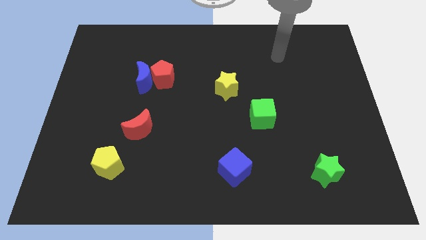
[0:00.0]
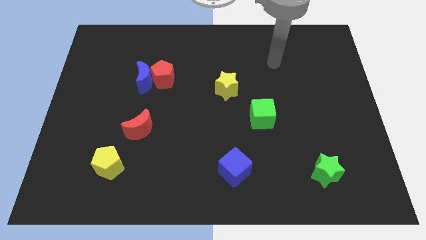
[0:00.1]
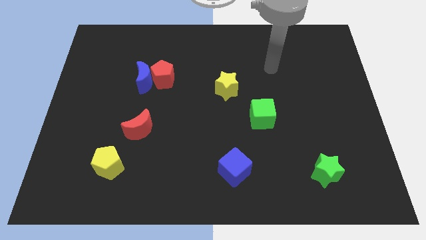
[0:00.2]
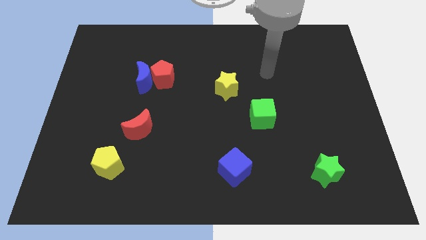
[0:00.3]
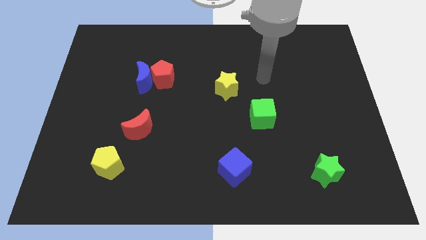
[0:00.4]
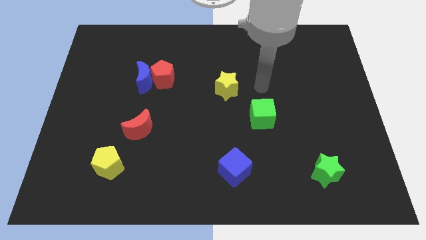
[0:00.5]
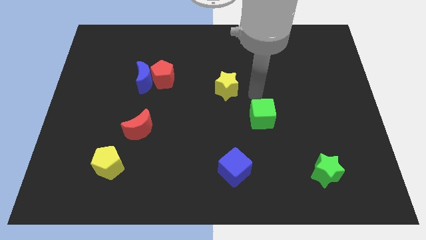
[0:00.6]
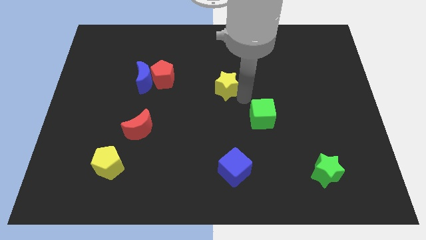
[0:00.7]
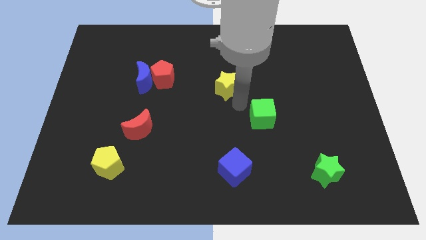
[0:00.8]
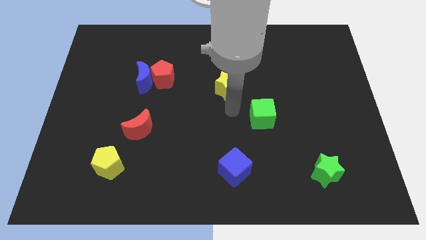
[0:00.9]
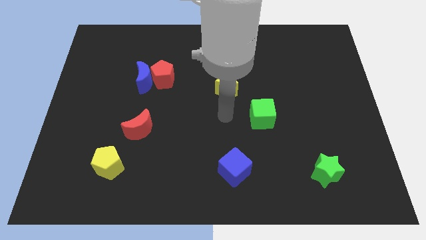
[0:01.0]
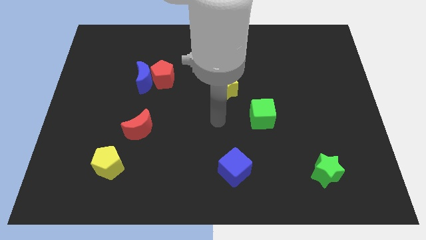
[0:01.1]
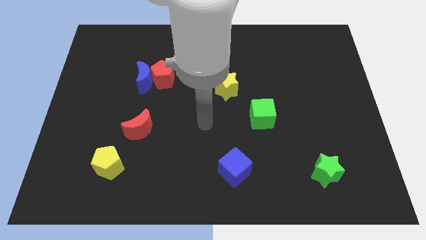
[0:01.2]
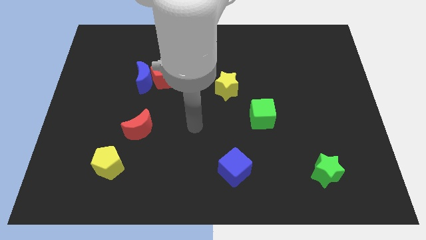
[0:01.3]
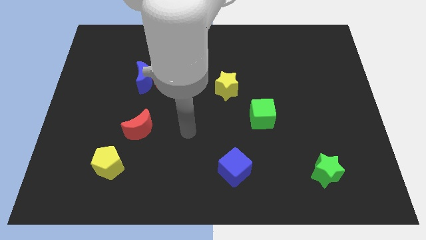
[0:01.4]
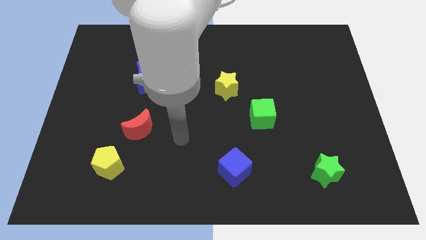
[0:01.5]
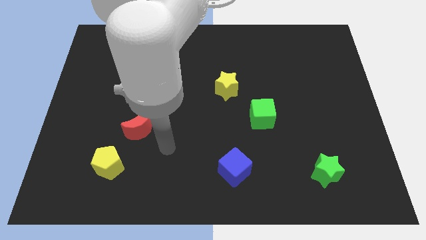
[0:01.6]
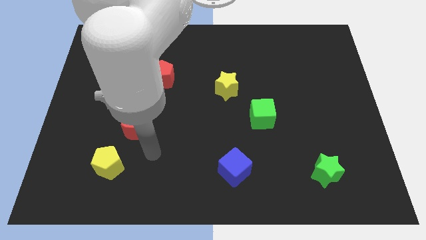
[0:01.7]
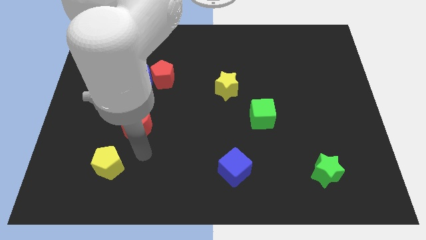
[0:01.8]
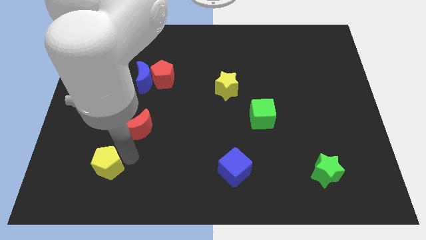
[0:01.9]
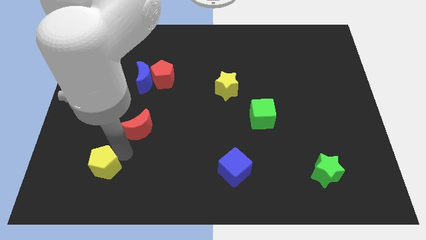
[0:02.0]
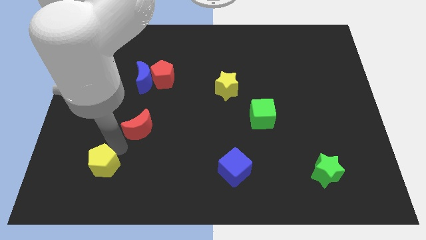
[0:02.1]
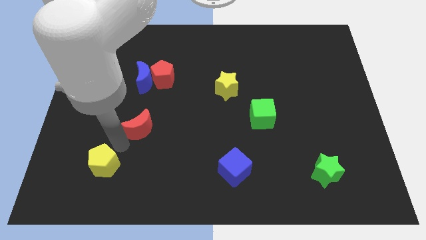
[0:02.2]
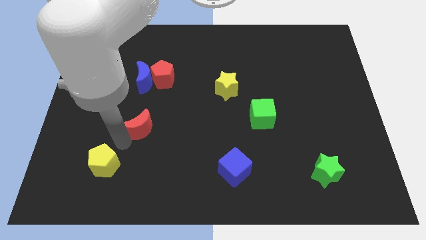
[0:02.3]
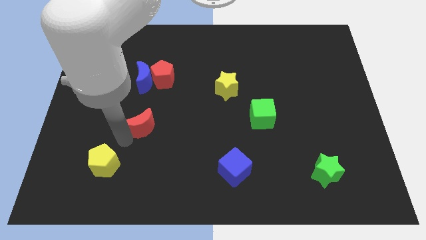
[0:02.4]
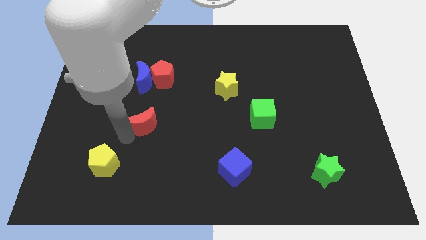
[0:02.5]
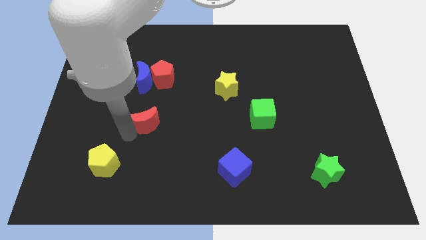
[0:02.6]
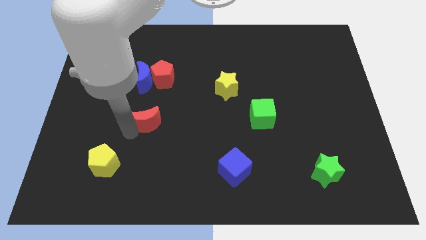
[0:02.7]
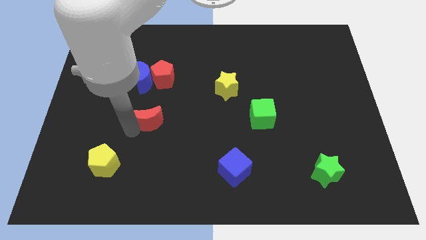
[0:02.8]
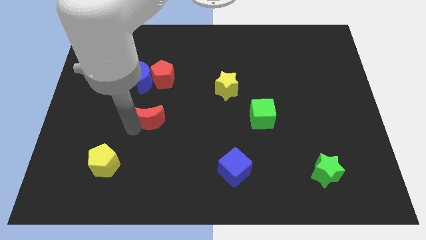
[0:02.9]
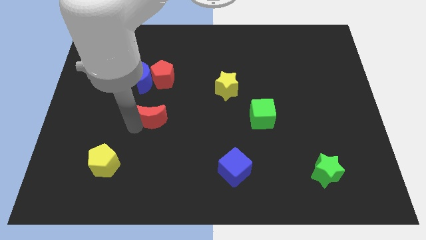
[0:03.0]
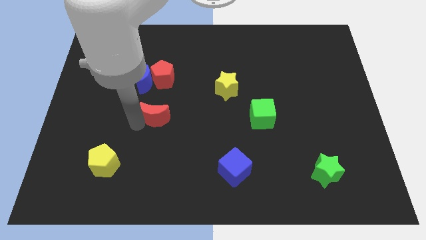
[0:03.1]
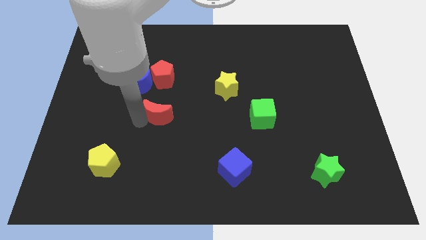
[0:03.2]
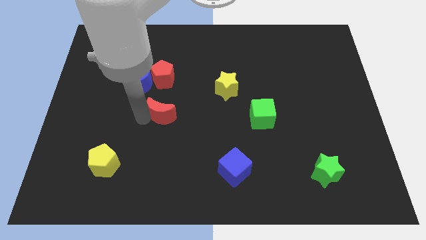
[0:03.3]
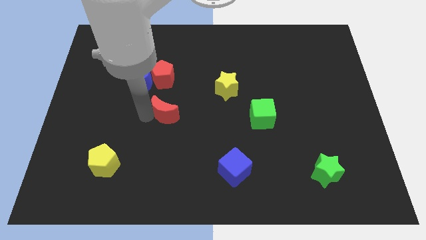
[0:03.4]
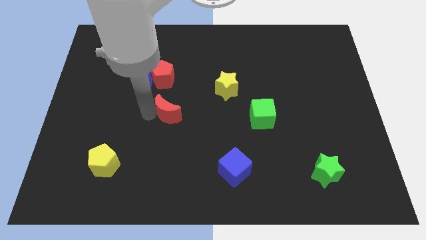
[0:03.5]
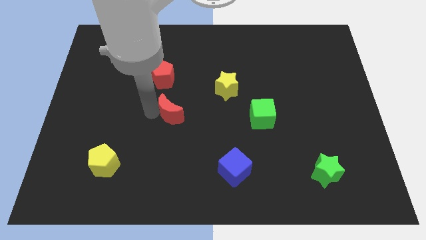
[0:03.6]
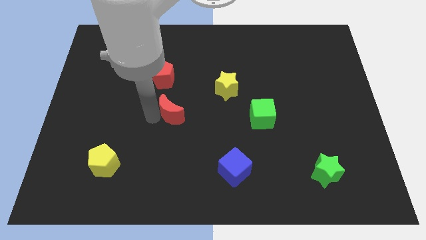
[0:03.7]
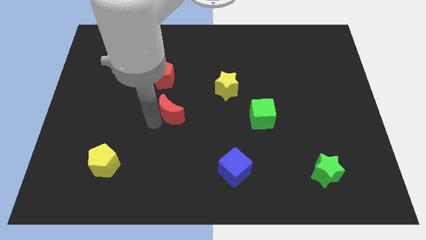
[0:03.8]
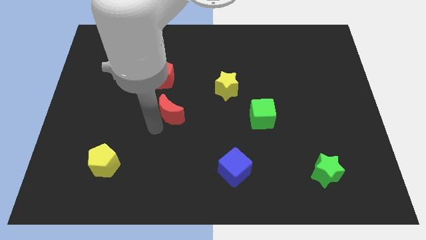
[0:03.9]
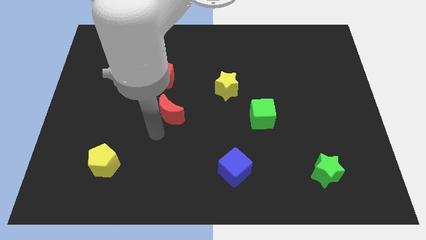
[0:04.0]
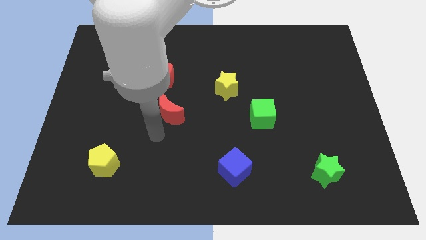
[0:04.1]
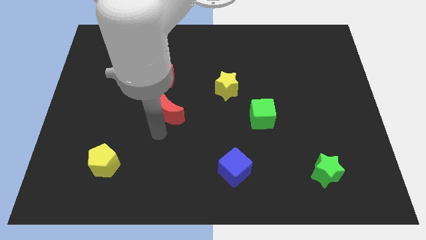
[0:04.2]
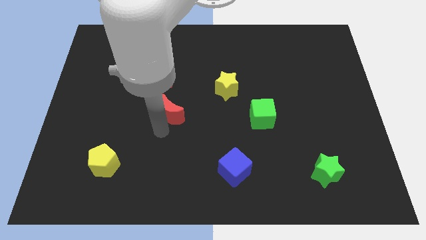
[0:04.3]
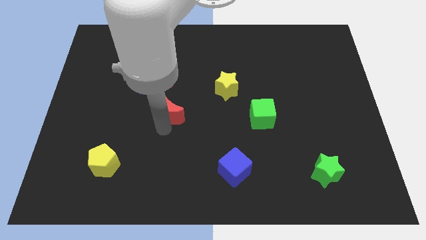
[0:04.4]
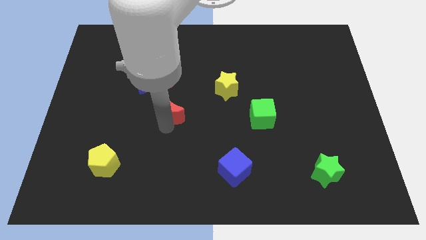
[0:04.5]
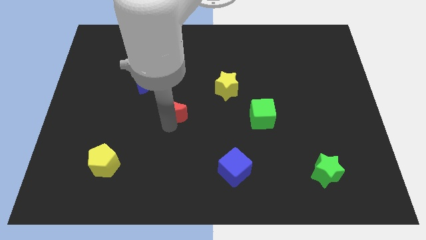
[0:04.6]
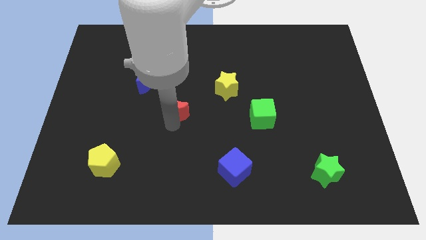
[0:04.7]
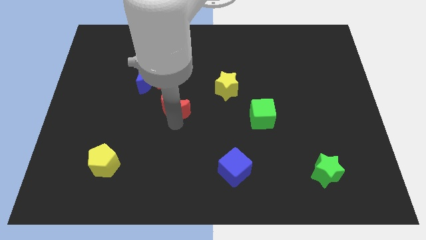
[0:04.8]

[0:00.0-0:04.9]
push the red moon to the bottom right of the red pentagon

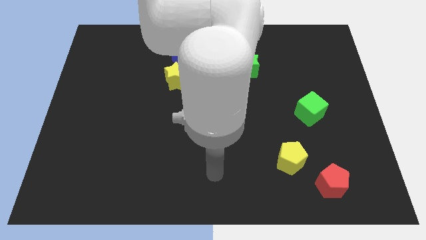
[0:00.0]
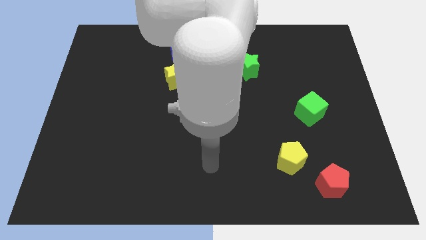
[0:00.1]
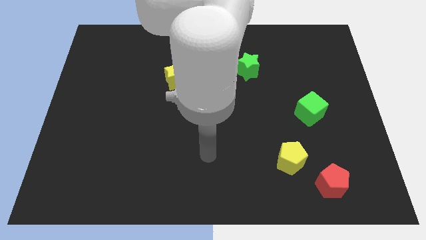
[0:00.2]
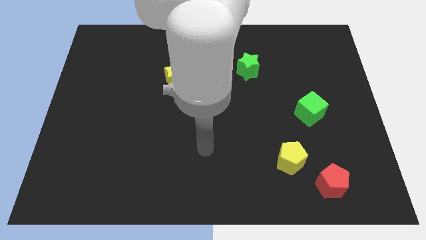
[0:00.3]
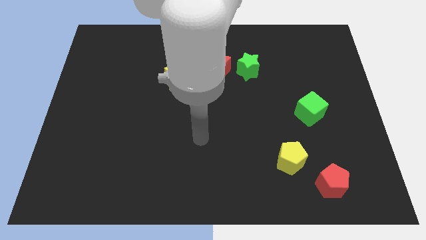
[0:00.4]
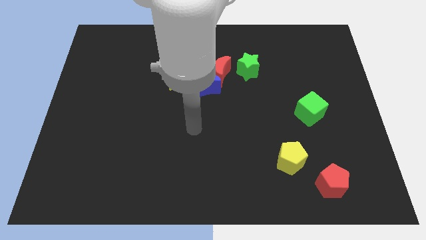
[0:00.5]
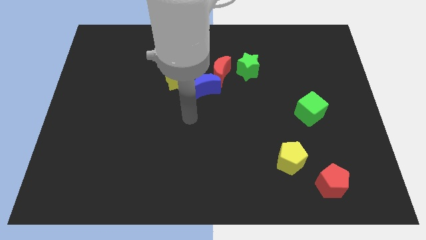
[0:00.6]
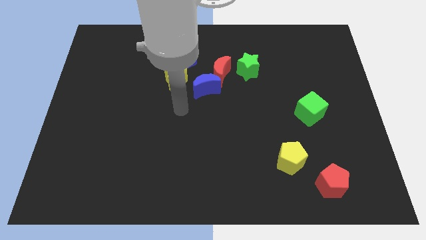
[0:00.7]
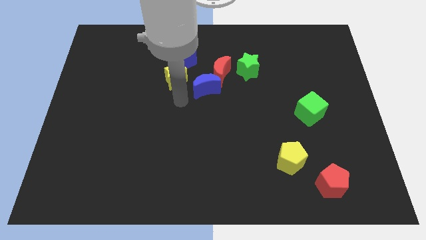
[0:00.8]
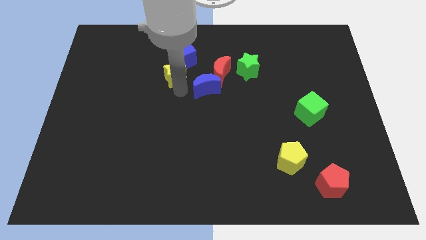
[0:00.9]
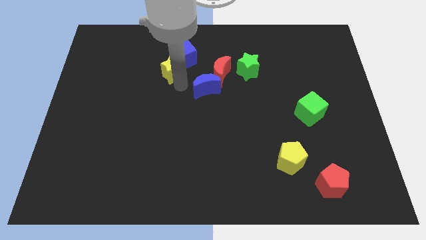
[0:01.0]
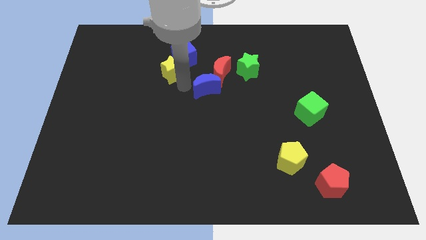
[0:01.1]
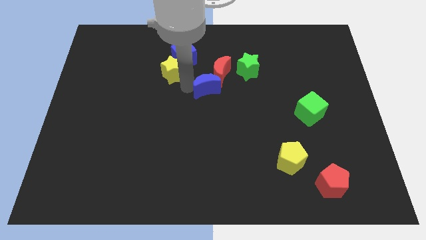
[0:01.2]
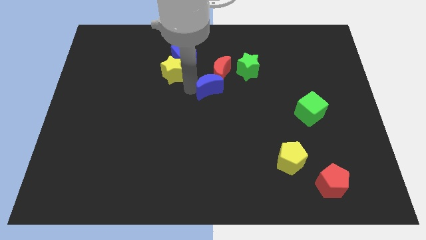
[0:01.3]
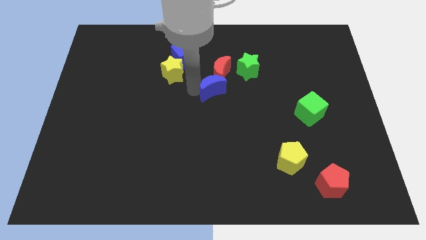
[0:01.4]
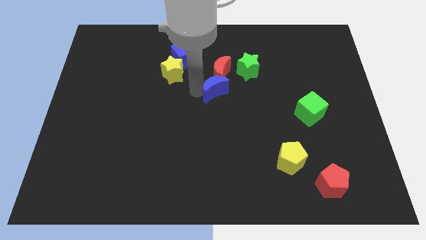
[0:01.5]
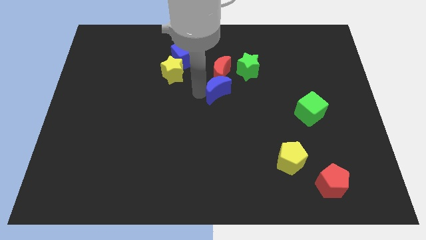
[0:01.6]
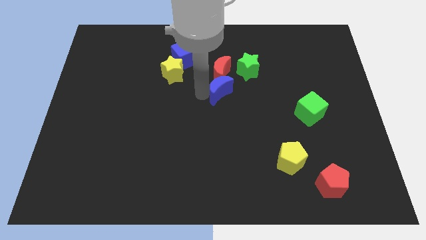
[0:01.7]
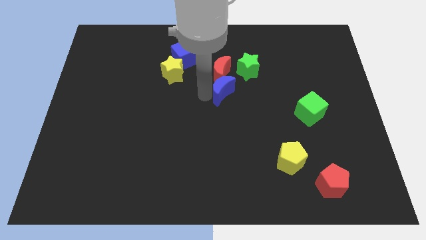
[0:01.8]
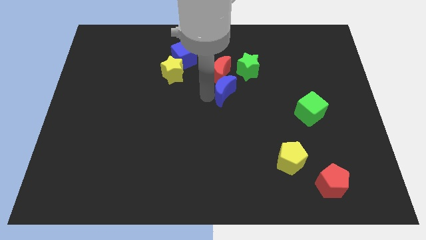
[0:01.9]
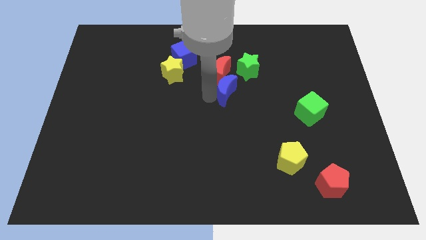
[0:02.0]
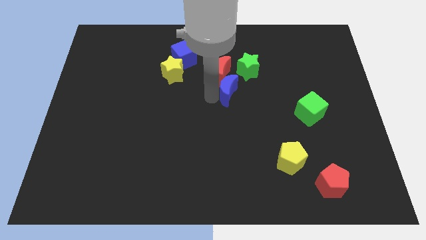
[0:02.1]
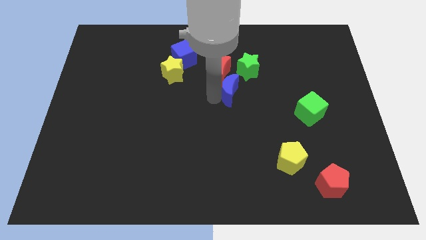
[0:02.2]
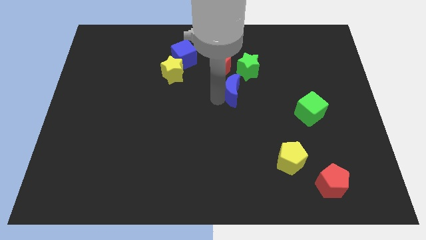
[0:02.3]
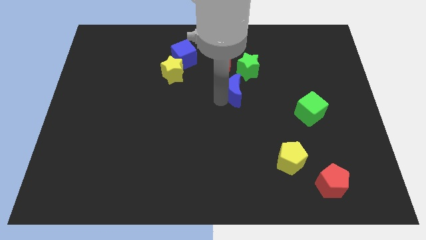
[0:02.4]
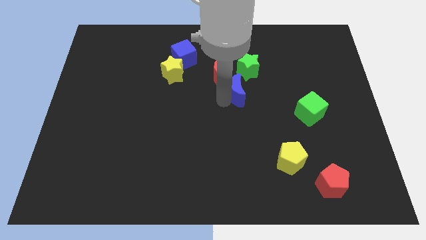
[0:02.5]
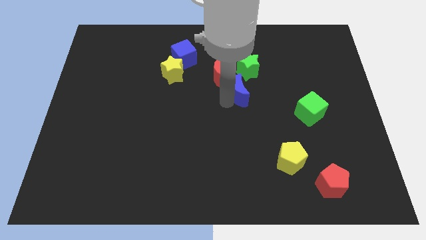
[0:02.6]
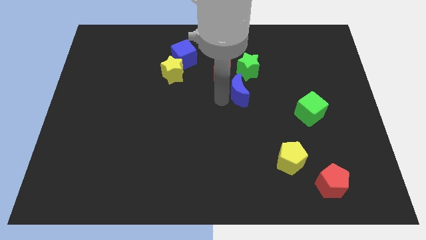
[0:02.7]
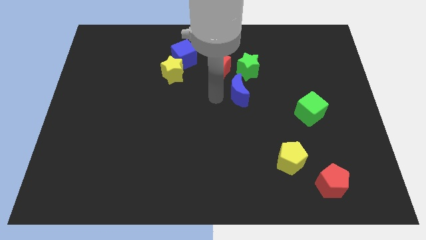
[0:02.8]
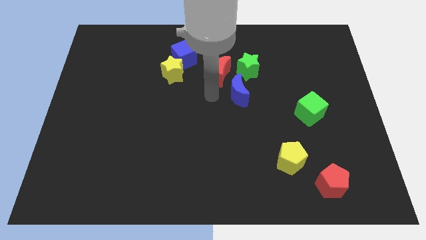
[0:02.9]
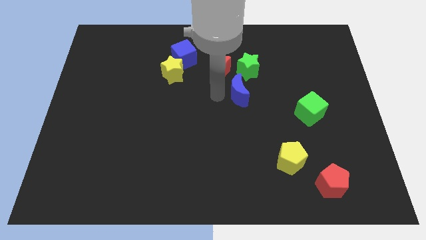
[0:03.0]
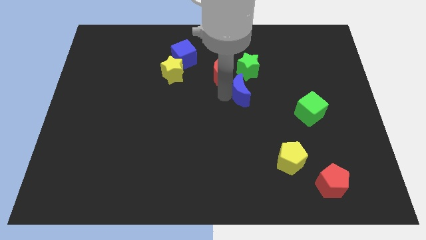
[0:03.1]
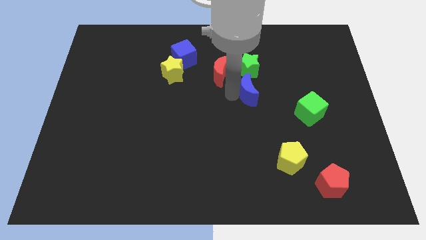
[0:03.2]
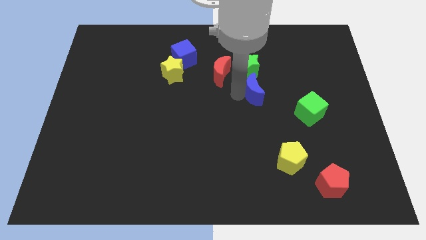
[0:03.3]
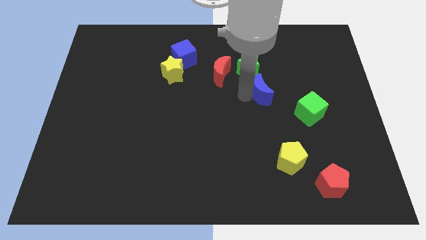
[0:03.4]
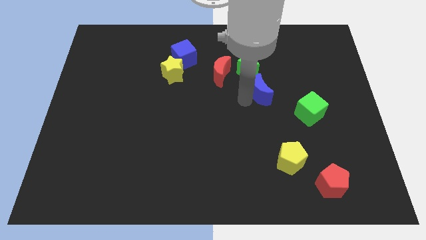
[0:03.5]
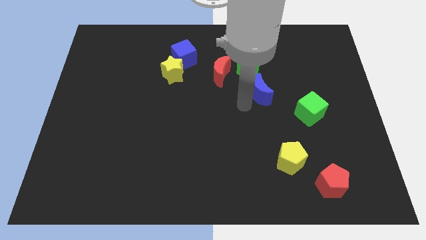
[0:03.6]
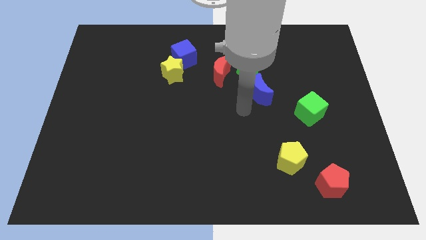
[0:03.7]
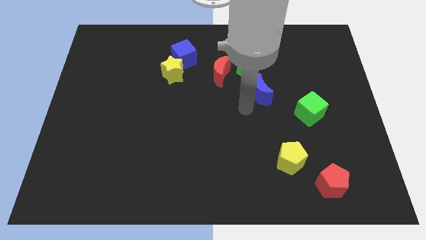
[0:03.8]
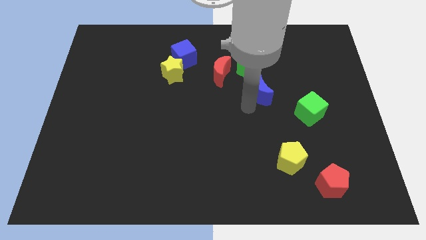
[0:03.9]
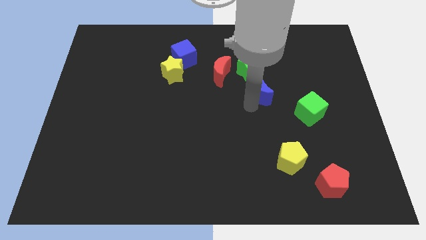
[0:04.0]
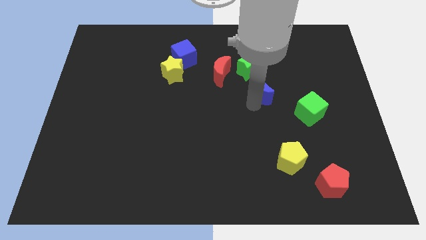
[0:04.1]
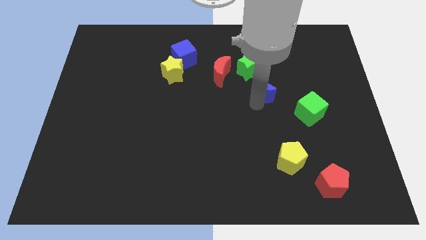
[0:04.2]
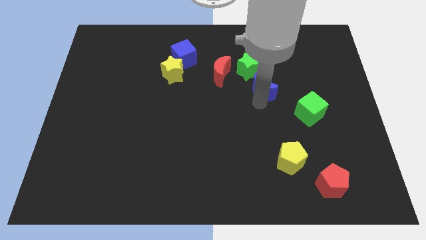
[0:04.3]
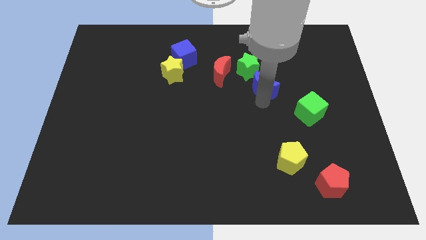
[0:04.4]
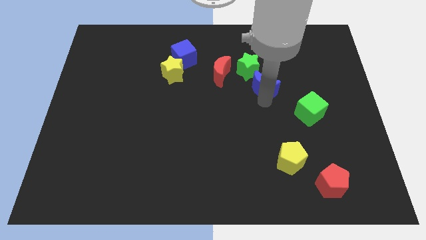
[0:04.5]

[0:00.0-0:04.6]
slide the blue moon to the right of the red moon
